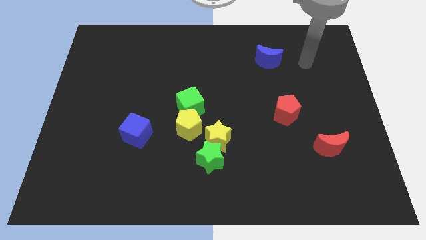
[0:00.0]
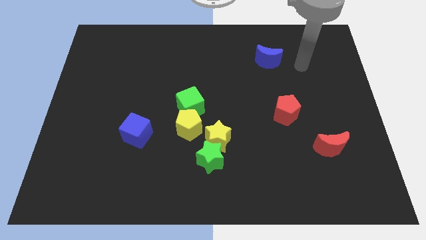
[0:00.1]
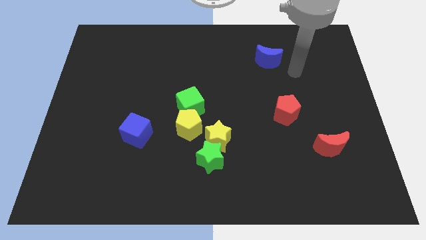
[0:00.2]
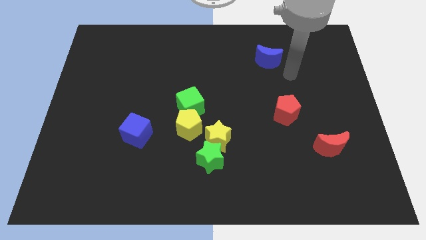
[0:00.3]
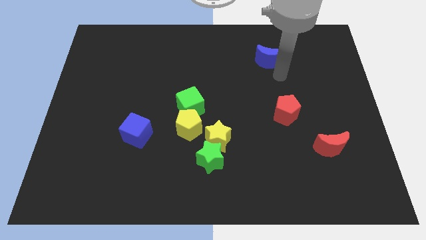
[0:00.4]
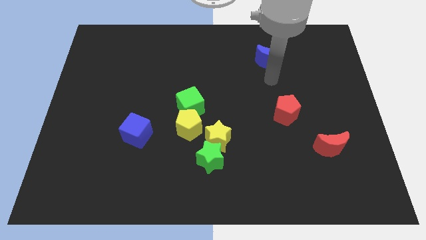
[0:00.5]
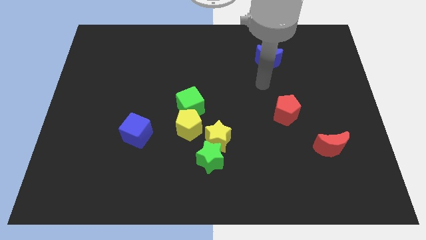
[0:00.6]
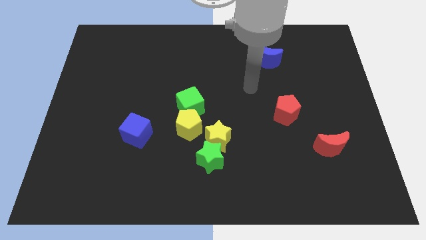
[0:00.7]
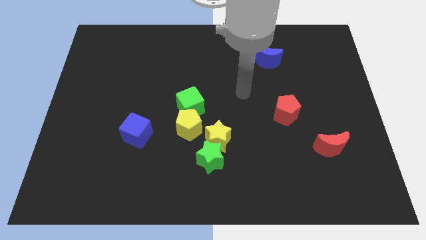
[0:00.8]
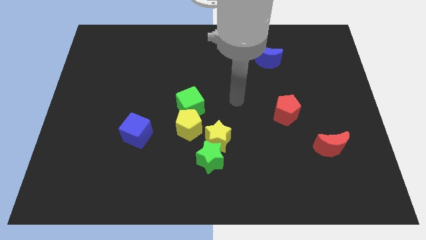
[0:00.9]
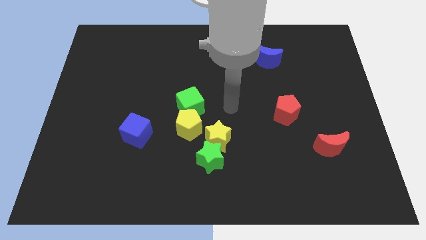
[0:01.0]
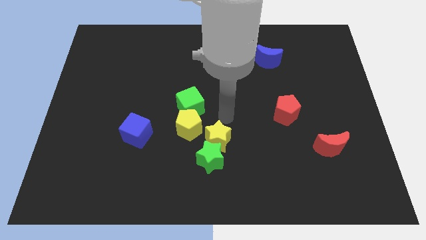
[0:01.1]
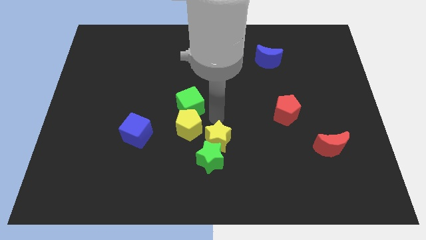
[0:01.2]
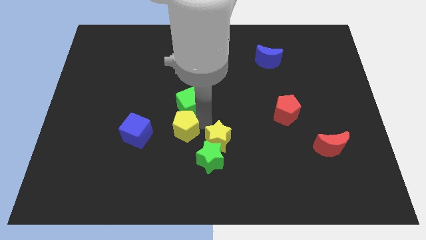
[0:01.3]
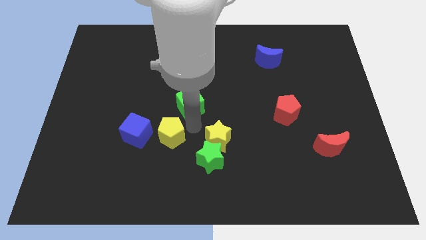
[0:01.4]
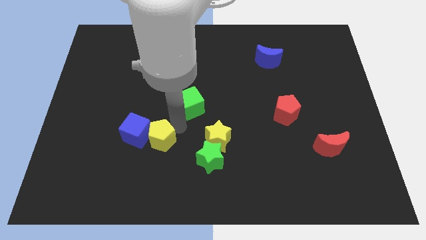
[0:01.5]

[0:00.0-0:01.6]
move the green cube away from the yellow pentagon

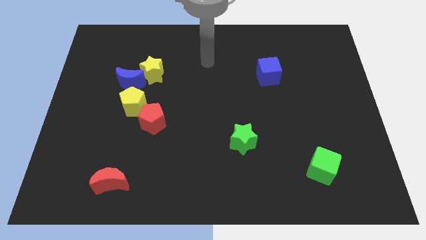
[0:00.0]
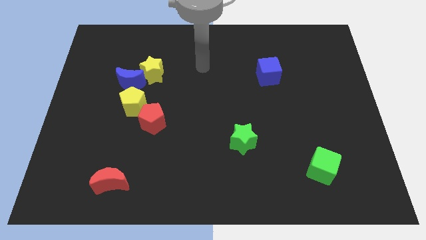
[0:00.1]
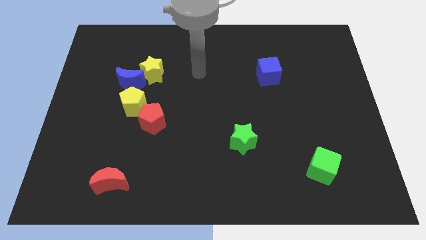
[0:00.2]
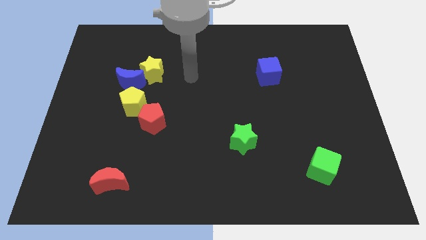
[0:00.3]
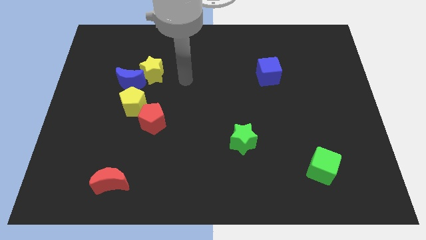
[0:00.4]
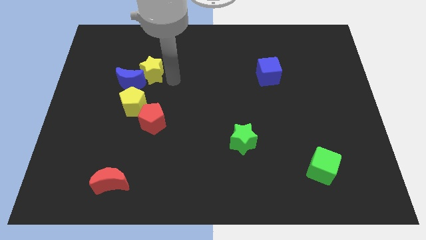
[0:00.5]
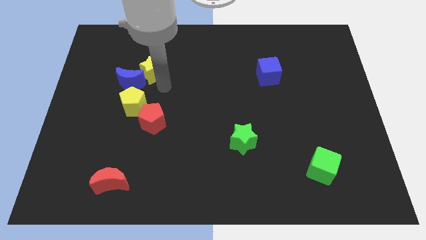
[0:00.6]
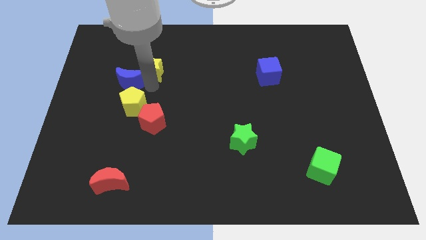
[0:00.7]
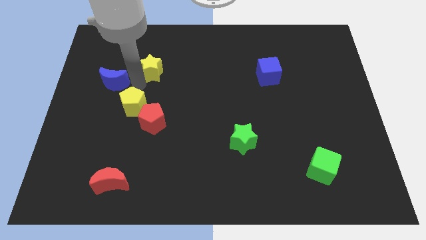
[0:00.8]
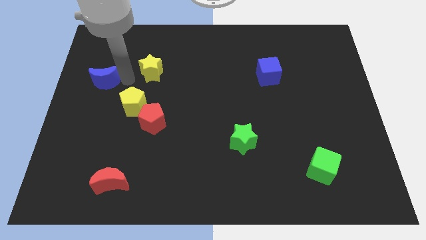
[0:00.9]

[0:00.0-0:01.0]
pull the yellow star apart from the blue moon

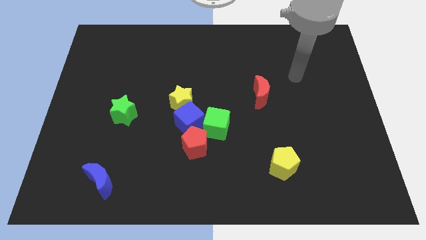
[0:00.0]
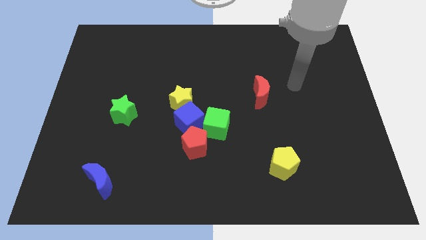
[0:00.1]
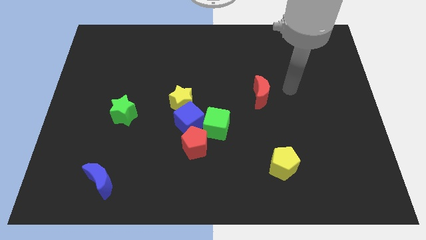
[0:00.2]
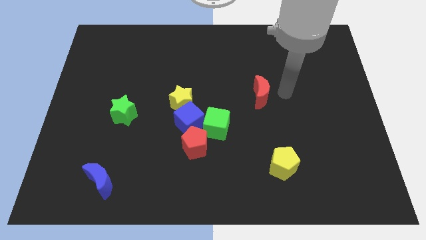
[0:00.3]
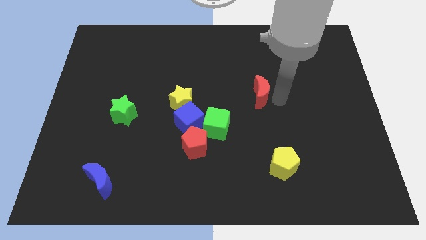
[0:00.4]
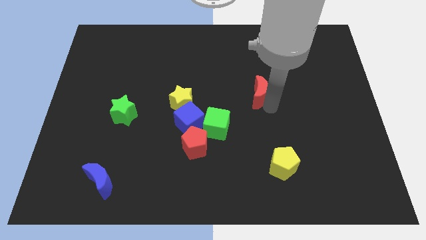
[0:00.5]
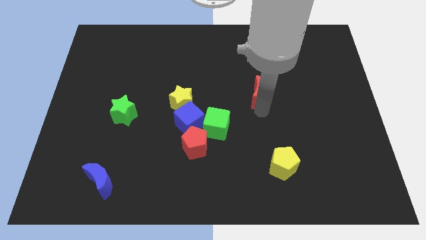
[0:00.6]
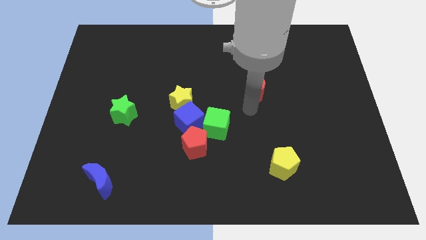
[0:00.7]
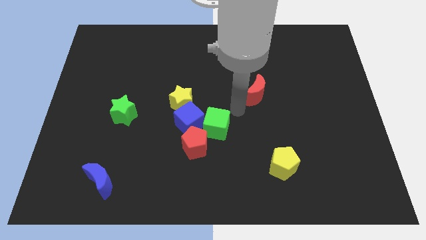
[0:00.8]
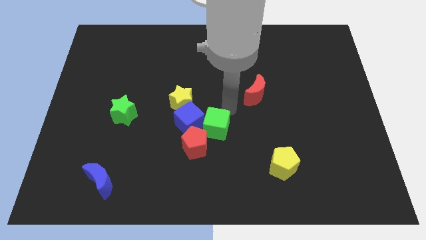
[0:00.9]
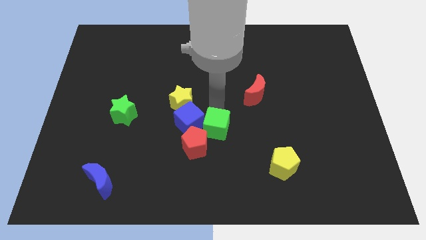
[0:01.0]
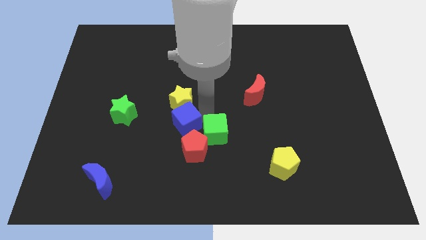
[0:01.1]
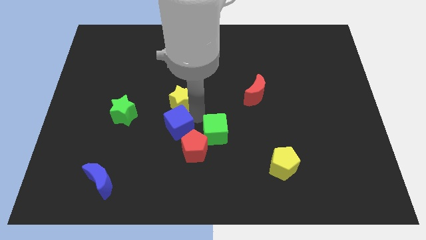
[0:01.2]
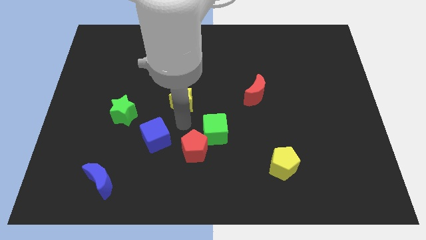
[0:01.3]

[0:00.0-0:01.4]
move the yellow star away from the blue cube

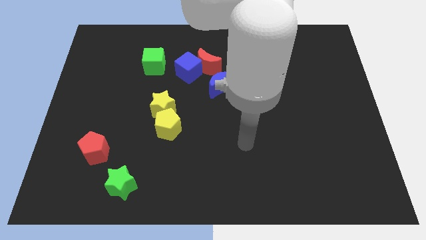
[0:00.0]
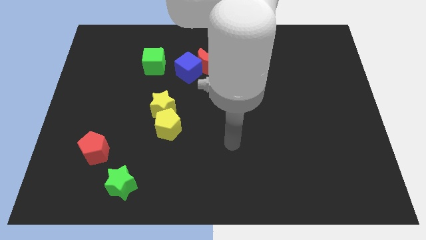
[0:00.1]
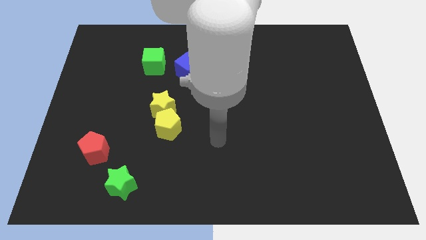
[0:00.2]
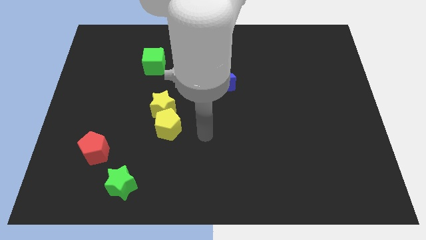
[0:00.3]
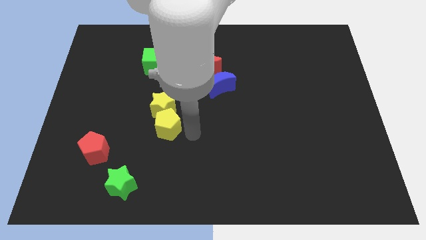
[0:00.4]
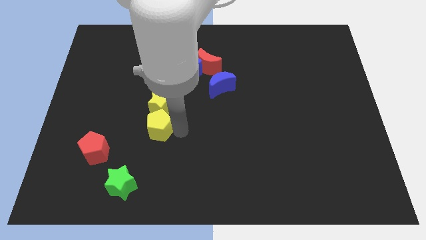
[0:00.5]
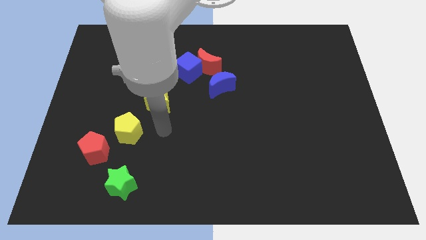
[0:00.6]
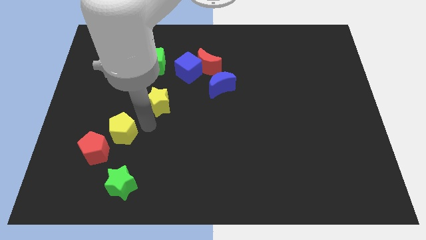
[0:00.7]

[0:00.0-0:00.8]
pull the yellow star apart from the yellow pentagon

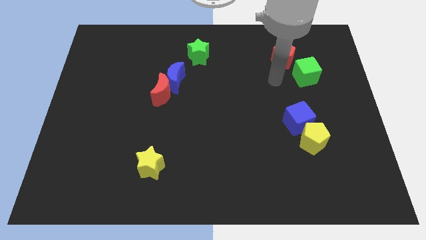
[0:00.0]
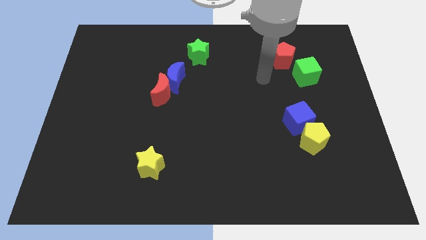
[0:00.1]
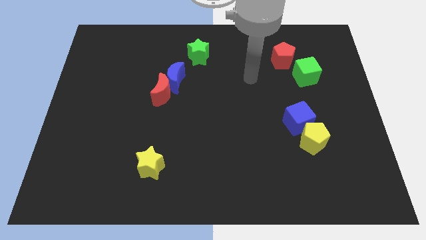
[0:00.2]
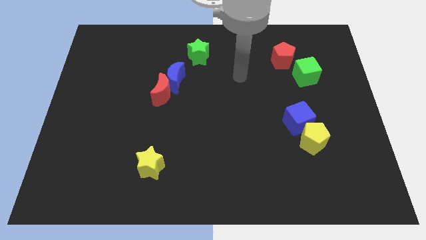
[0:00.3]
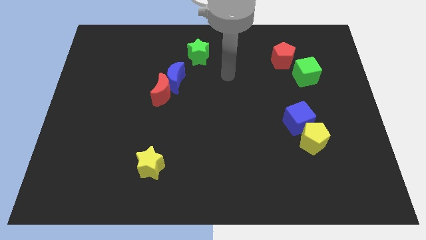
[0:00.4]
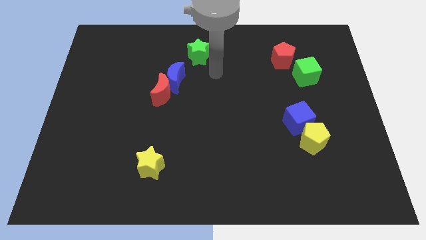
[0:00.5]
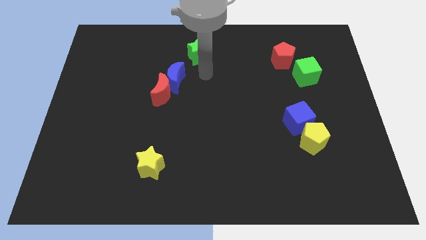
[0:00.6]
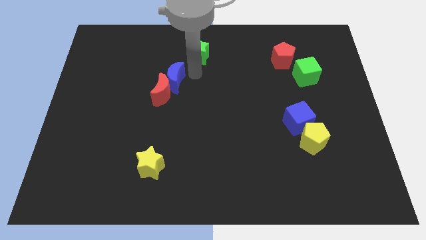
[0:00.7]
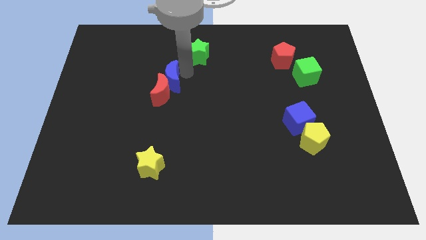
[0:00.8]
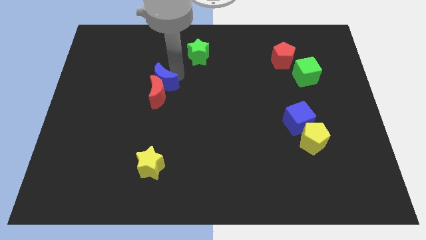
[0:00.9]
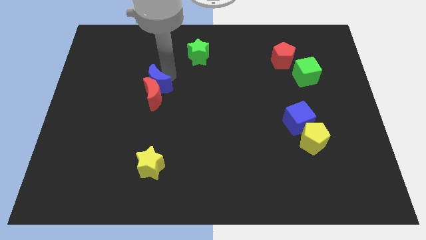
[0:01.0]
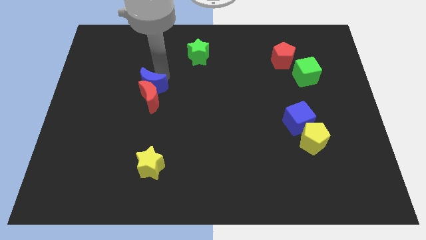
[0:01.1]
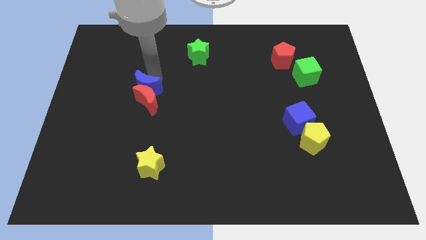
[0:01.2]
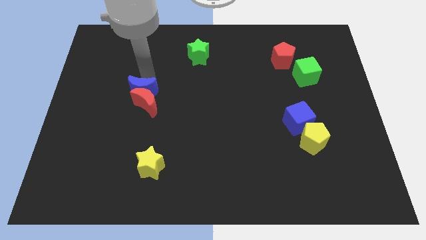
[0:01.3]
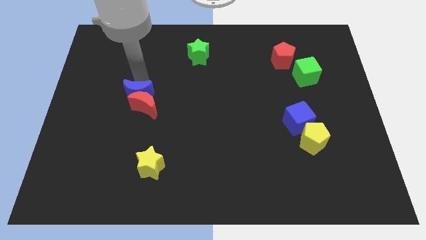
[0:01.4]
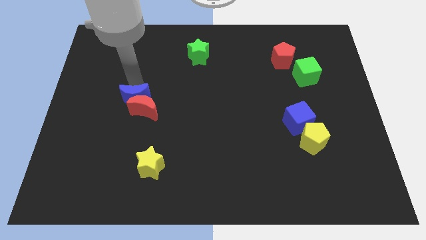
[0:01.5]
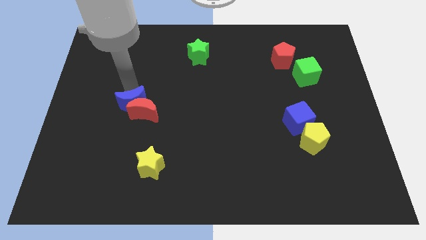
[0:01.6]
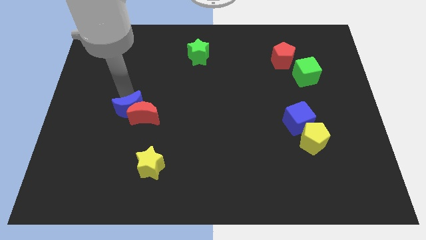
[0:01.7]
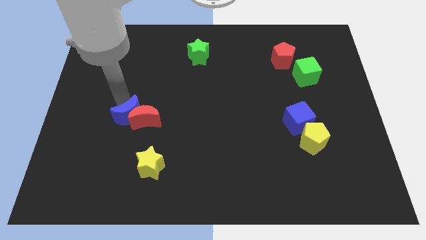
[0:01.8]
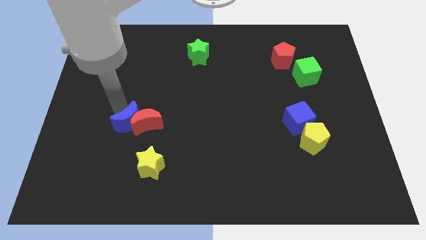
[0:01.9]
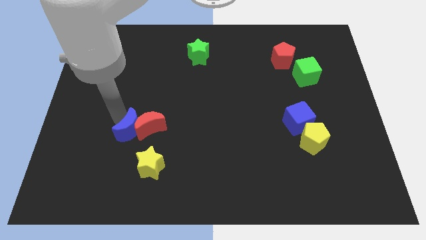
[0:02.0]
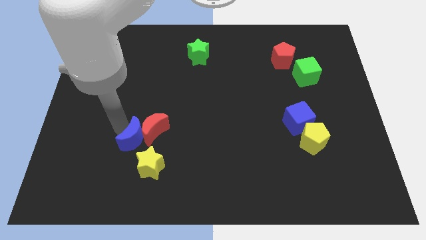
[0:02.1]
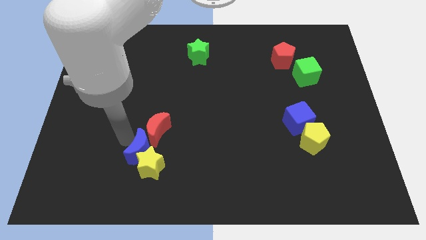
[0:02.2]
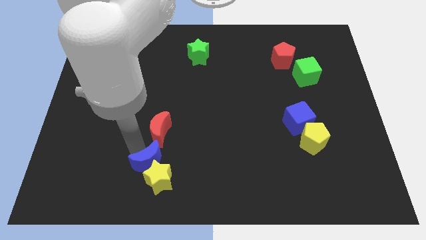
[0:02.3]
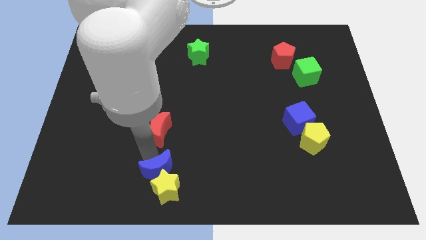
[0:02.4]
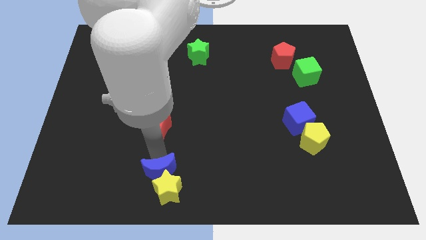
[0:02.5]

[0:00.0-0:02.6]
pull the red moon apart from the blue moon

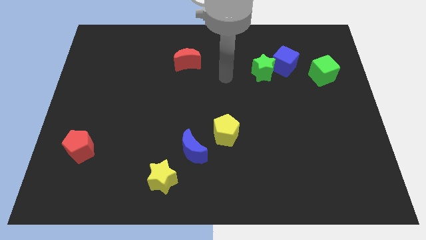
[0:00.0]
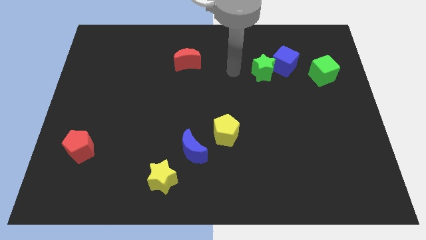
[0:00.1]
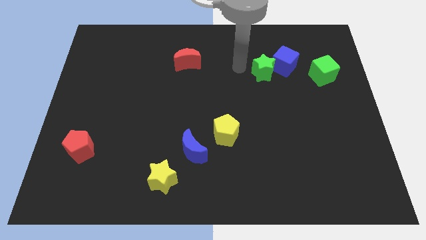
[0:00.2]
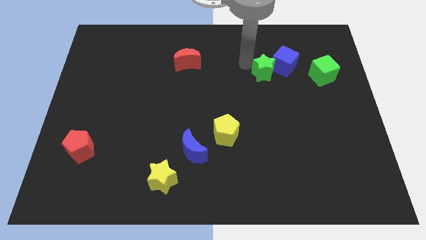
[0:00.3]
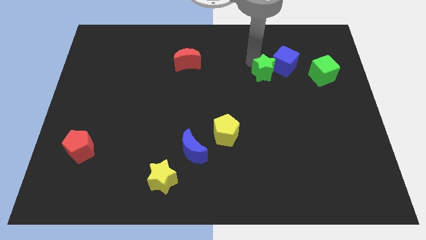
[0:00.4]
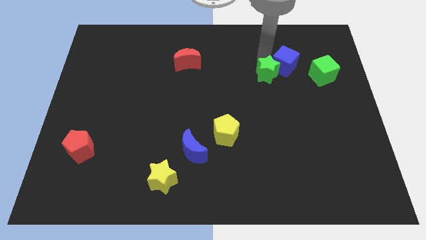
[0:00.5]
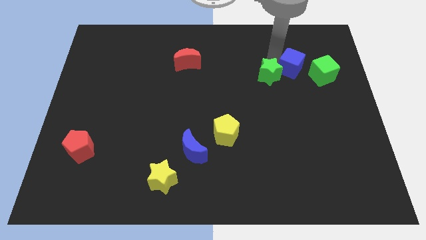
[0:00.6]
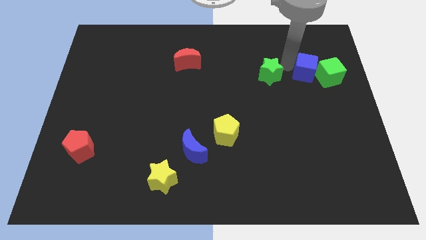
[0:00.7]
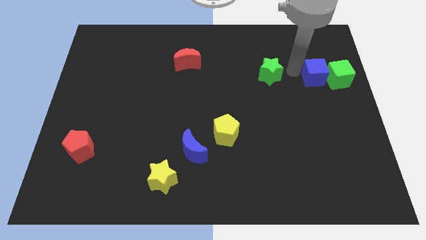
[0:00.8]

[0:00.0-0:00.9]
move the green star away from the blue cube

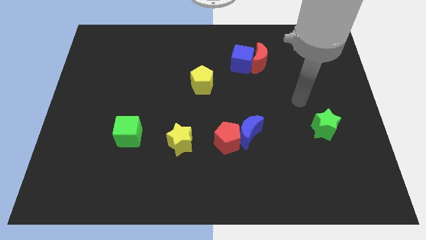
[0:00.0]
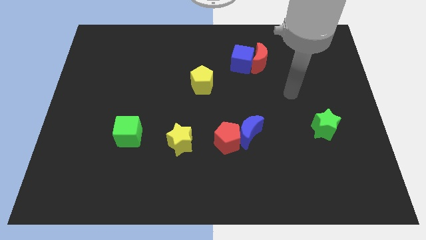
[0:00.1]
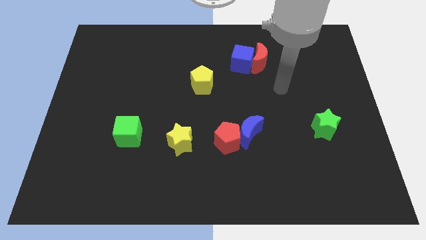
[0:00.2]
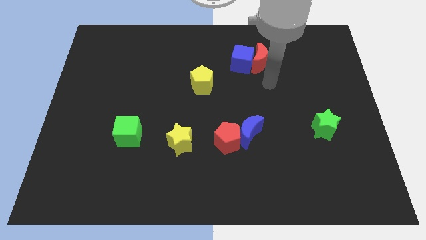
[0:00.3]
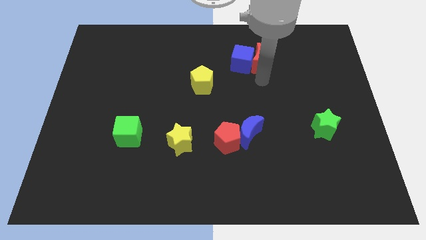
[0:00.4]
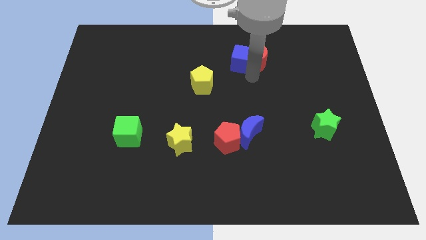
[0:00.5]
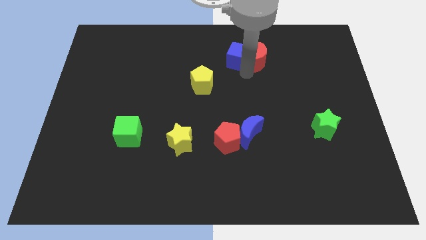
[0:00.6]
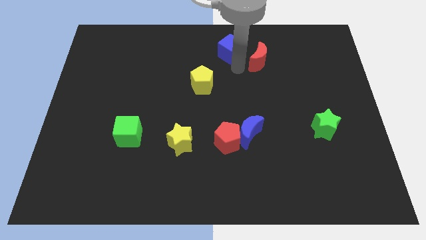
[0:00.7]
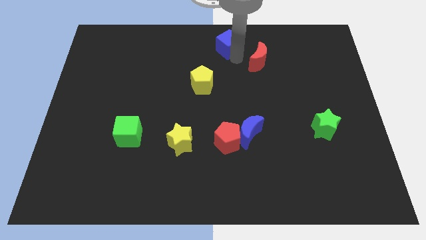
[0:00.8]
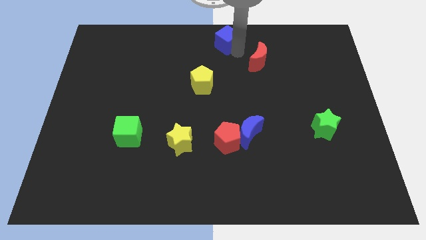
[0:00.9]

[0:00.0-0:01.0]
move the red moon away from the blue cube

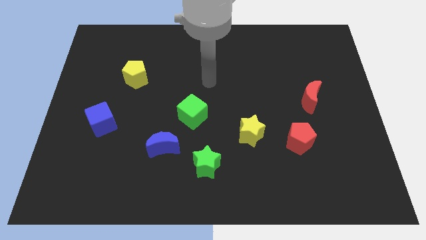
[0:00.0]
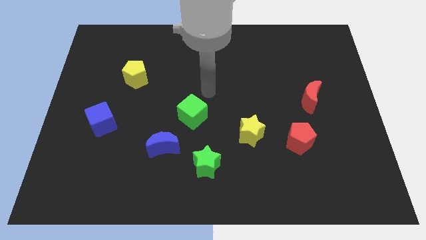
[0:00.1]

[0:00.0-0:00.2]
separate the blue moon from the green star
